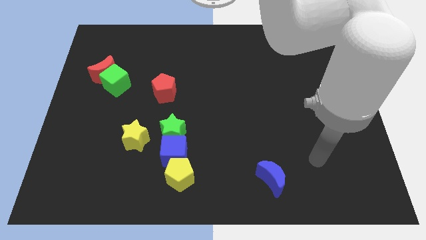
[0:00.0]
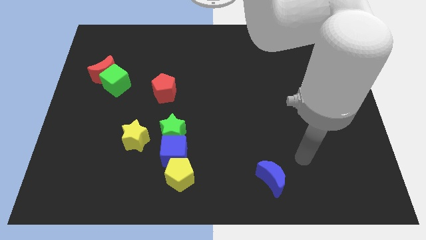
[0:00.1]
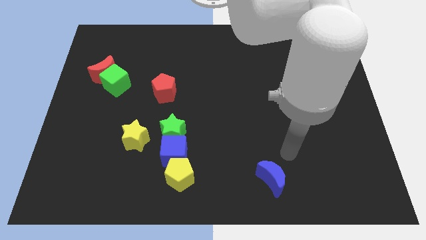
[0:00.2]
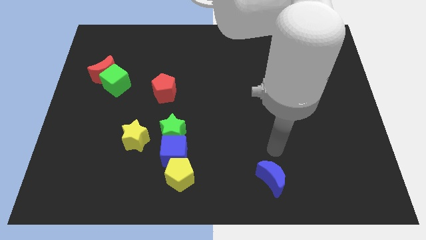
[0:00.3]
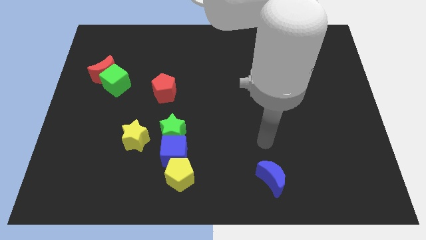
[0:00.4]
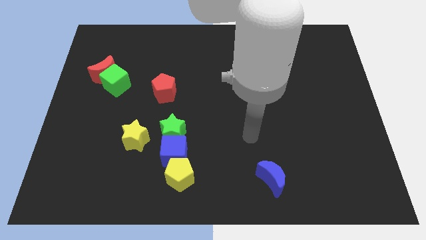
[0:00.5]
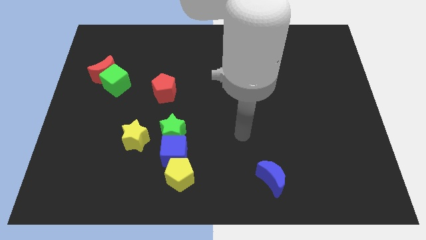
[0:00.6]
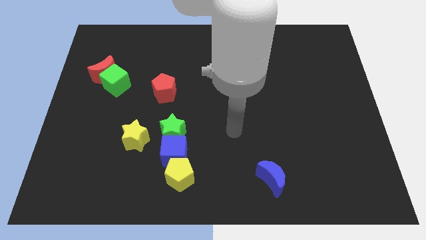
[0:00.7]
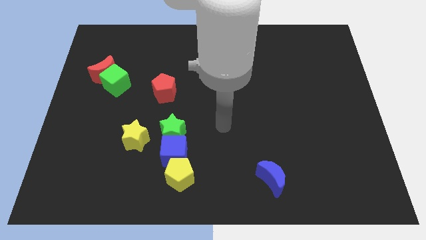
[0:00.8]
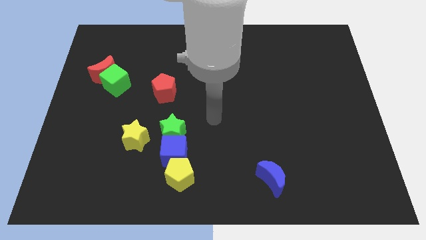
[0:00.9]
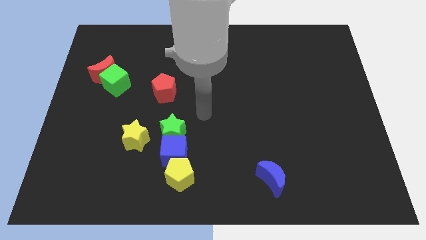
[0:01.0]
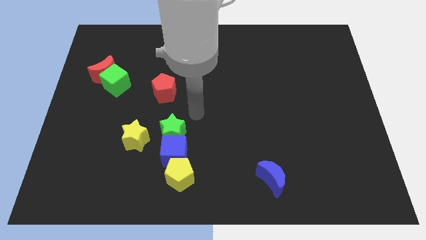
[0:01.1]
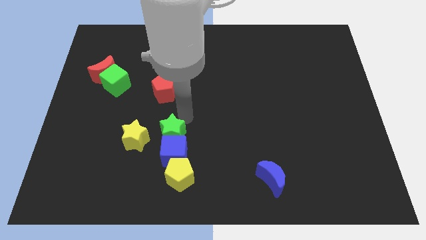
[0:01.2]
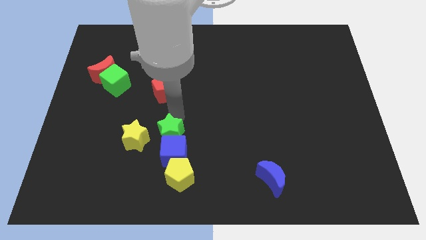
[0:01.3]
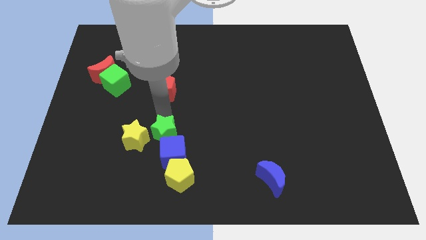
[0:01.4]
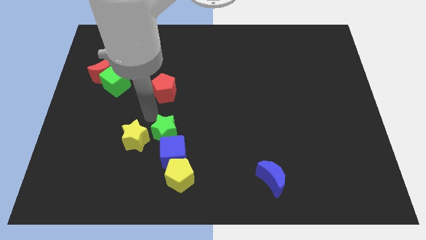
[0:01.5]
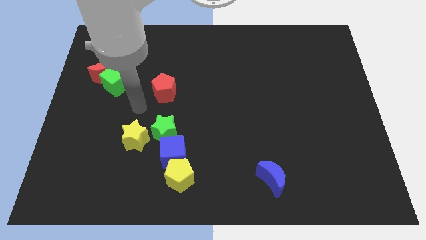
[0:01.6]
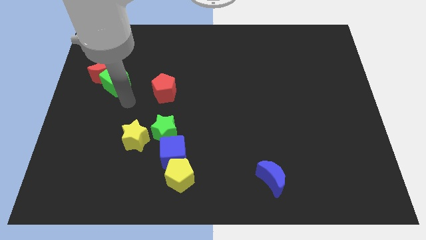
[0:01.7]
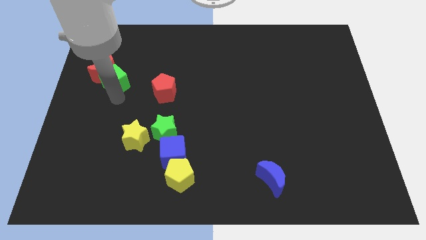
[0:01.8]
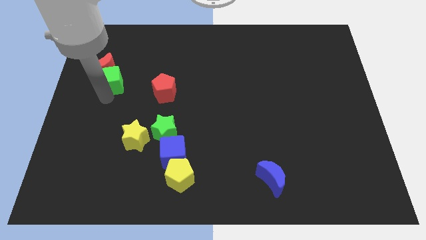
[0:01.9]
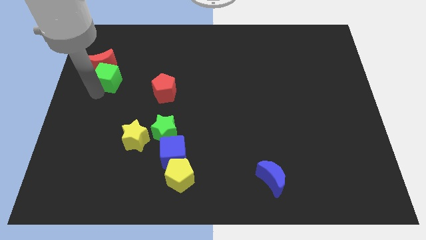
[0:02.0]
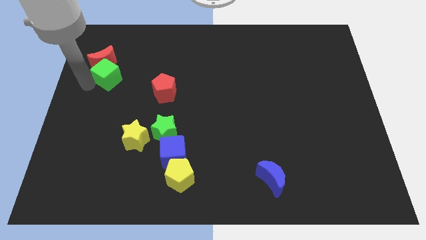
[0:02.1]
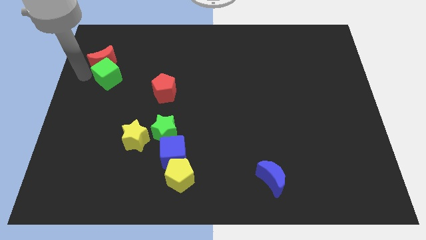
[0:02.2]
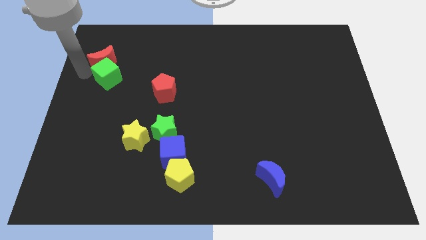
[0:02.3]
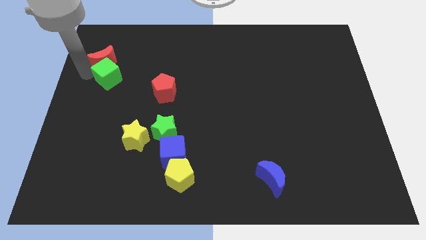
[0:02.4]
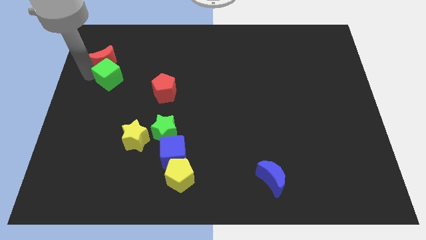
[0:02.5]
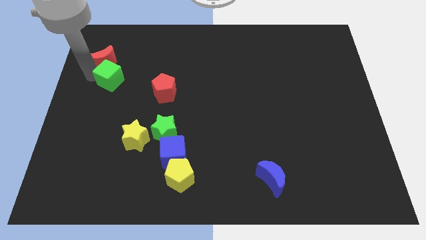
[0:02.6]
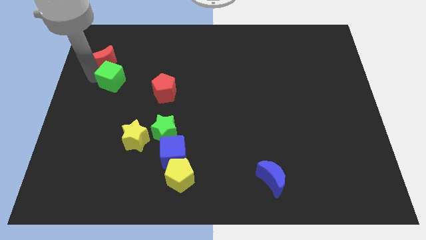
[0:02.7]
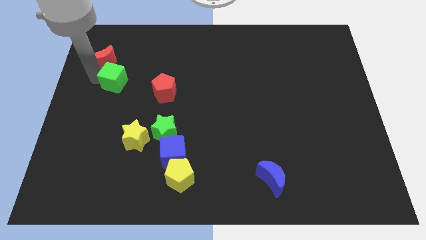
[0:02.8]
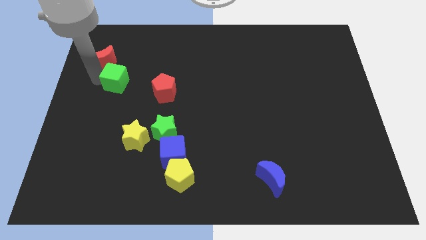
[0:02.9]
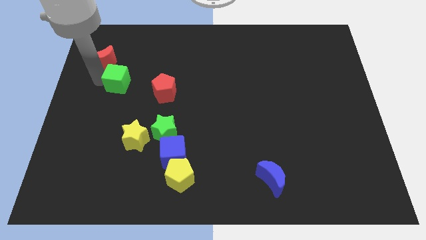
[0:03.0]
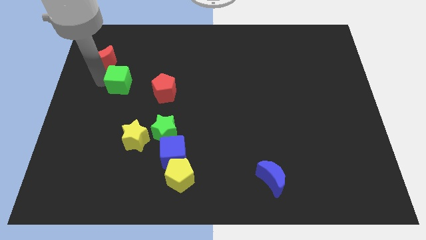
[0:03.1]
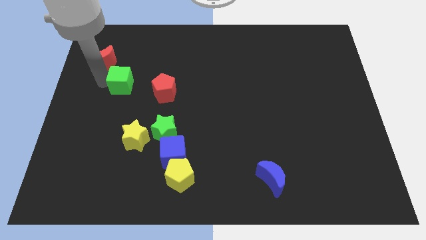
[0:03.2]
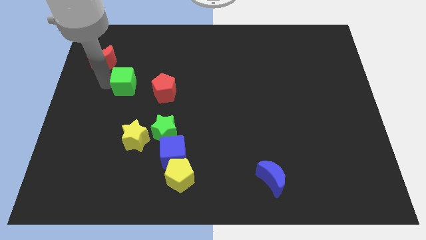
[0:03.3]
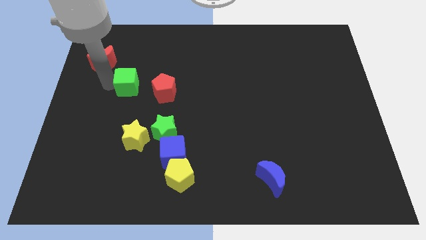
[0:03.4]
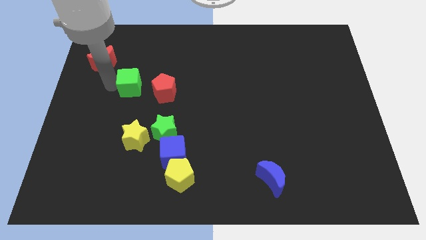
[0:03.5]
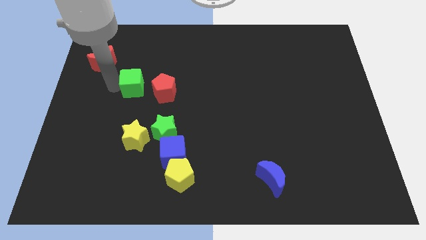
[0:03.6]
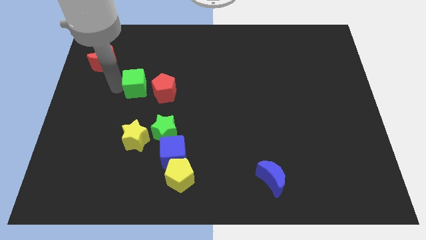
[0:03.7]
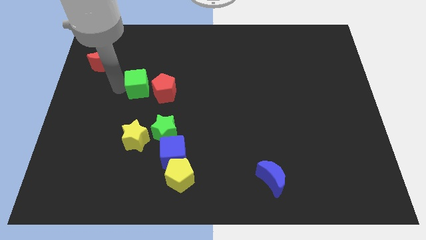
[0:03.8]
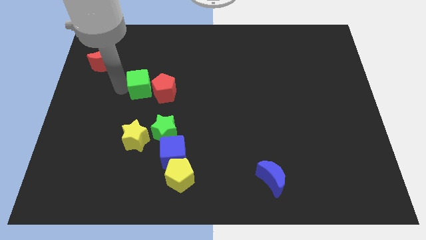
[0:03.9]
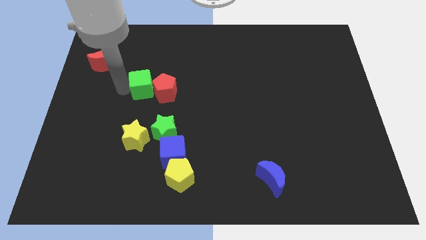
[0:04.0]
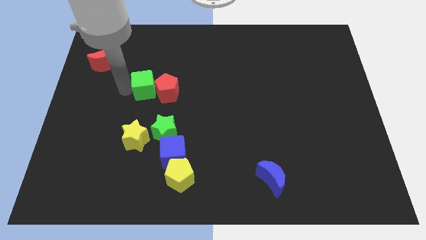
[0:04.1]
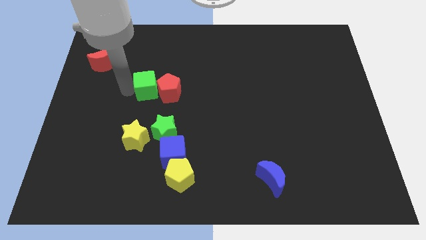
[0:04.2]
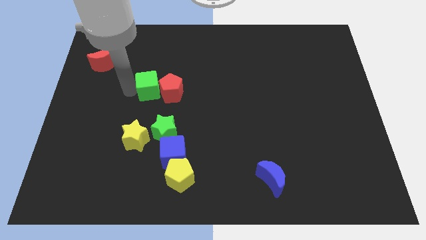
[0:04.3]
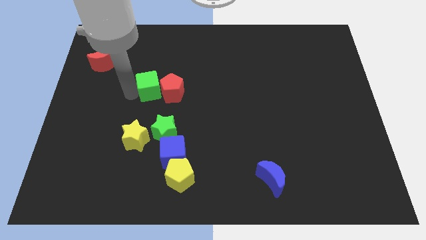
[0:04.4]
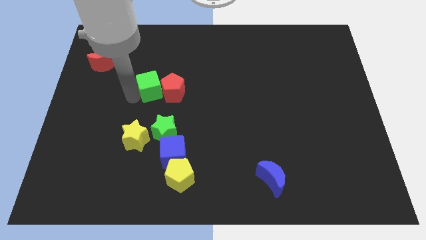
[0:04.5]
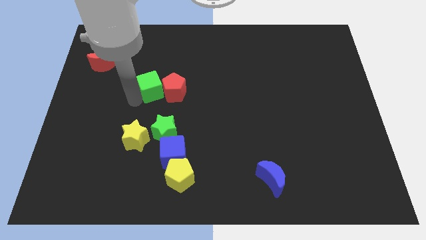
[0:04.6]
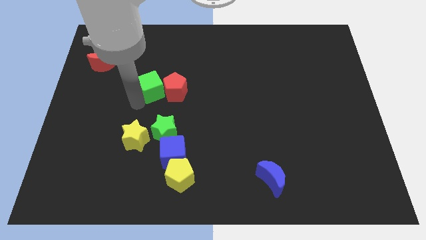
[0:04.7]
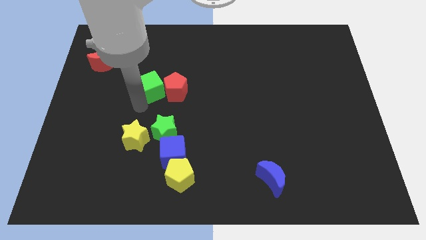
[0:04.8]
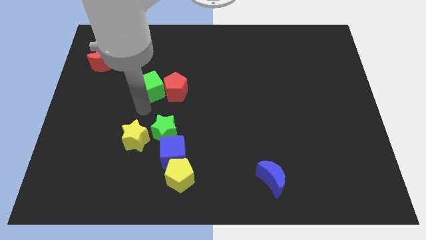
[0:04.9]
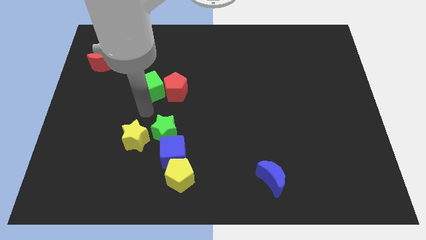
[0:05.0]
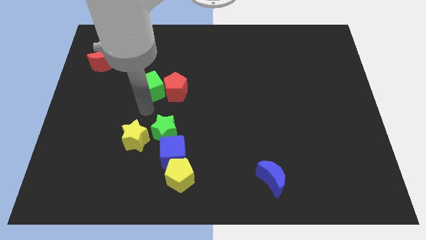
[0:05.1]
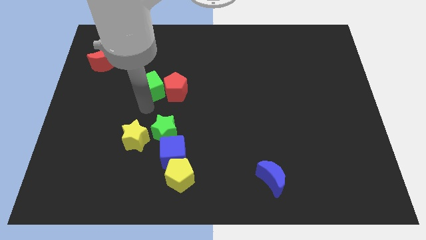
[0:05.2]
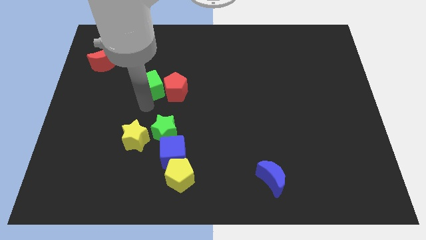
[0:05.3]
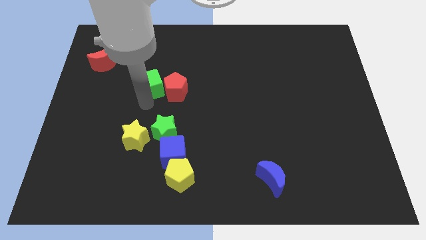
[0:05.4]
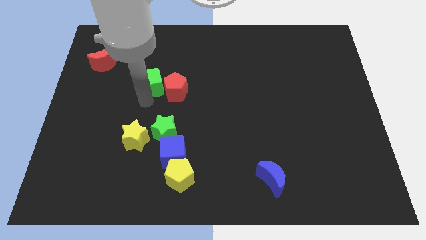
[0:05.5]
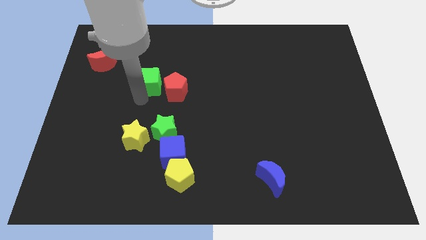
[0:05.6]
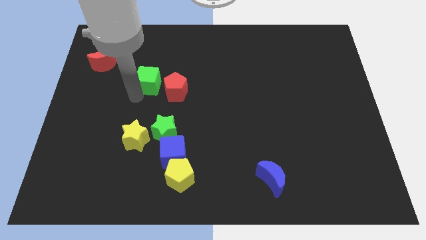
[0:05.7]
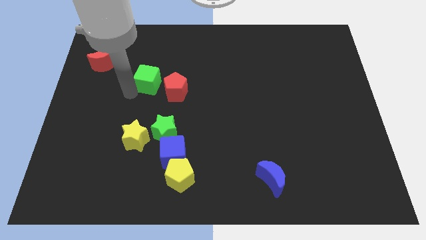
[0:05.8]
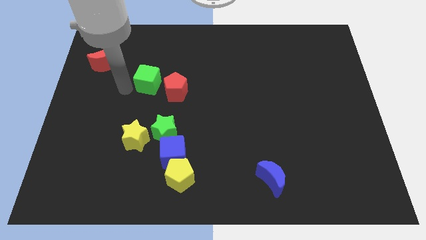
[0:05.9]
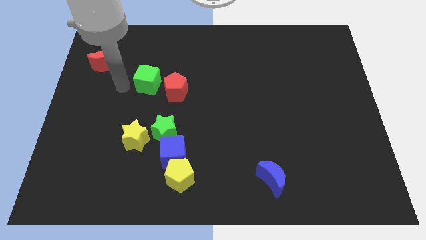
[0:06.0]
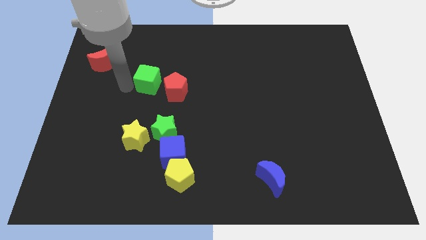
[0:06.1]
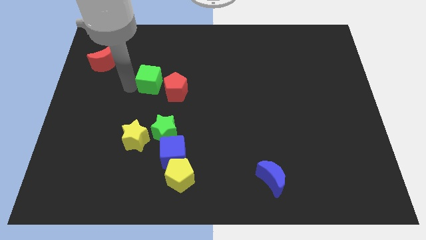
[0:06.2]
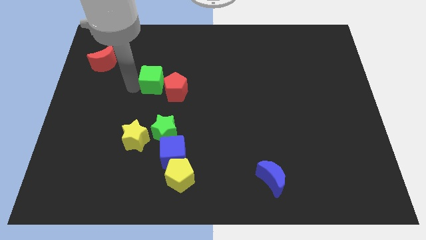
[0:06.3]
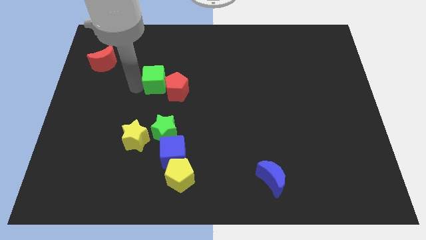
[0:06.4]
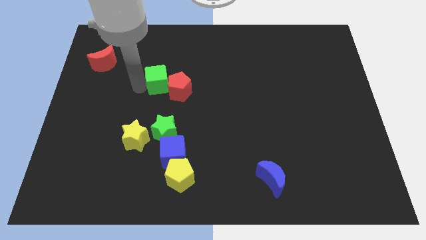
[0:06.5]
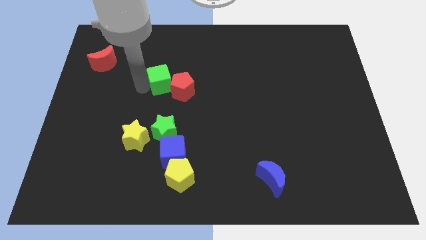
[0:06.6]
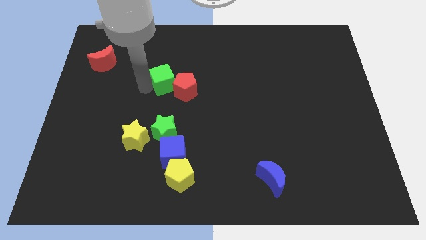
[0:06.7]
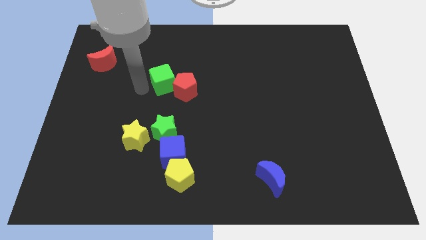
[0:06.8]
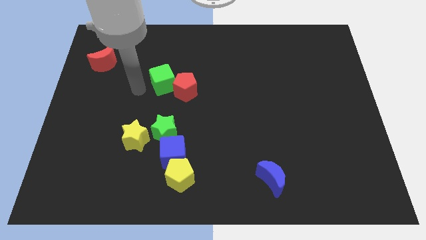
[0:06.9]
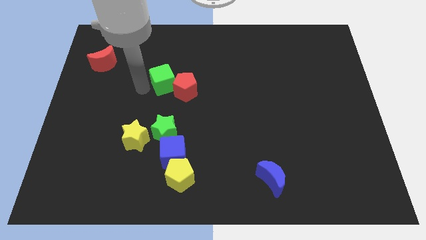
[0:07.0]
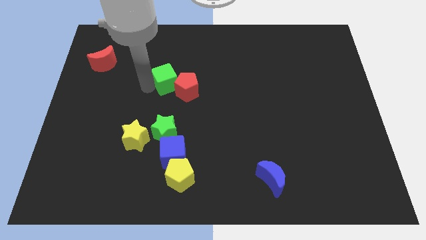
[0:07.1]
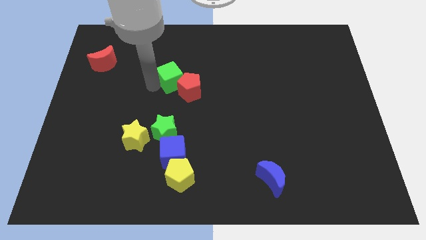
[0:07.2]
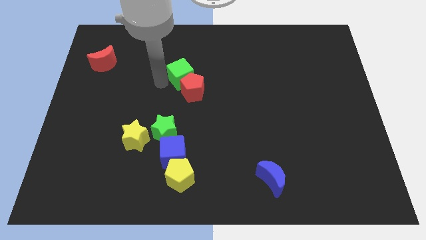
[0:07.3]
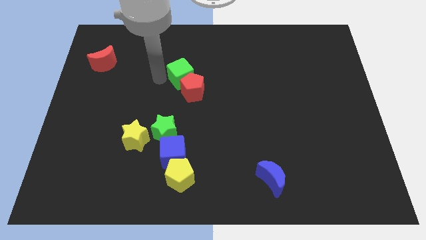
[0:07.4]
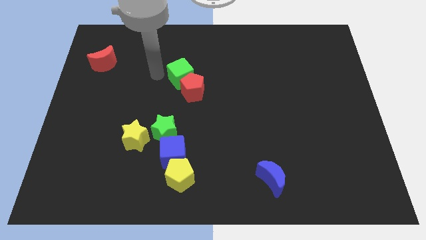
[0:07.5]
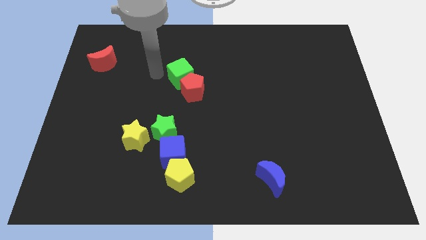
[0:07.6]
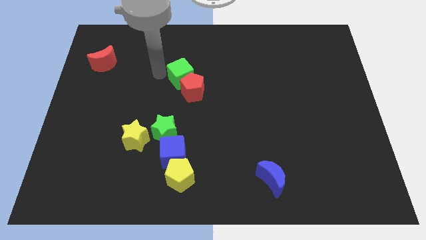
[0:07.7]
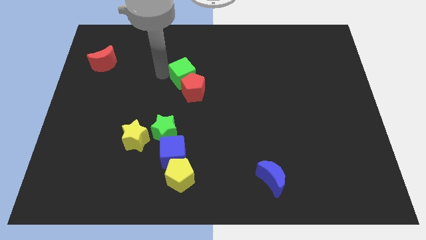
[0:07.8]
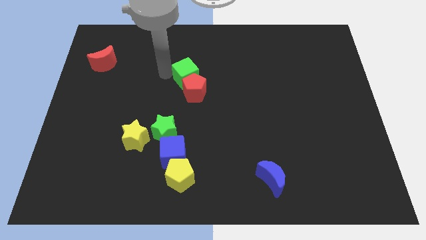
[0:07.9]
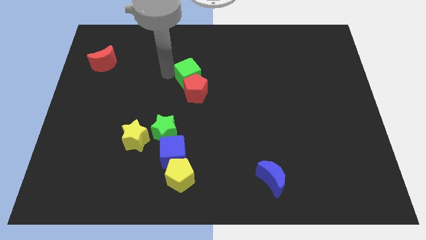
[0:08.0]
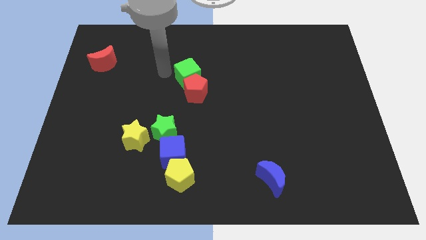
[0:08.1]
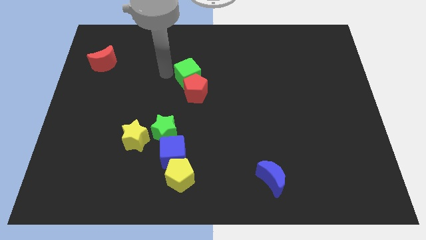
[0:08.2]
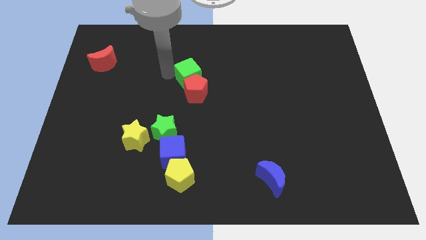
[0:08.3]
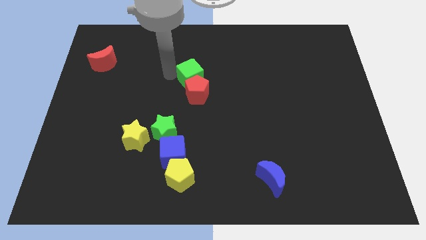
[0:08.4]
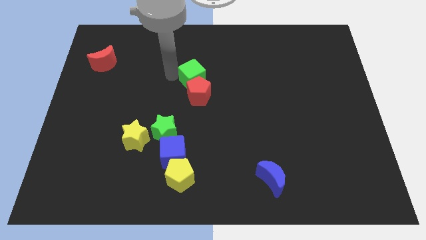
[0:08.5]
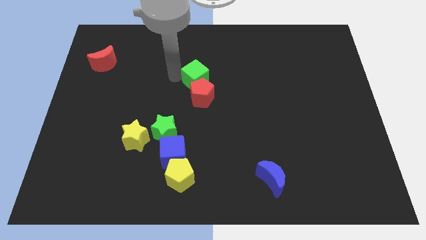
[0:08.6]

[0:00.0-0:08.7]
slide the green cube right
